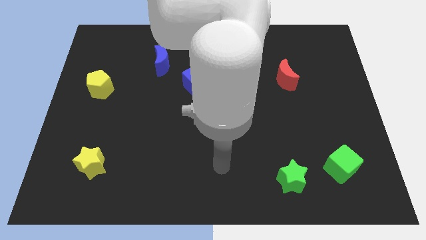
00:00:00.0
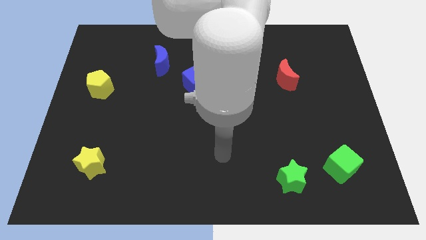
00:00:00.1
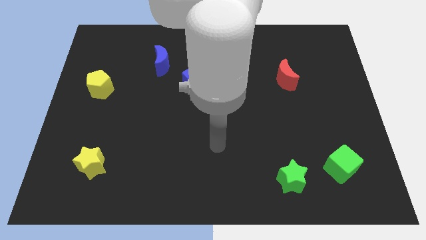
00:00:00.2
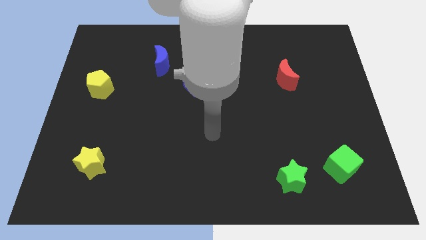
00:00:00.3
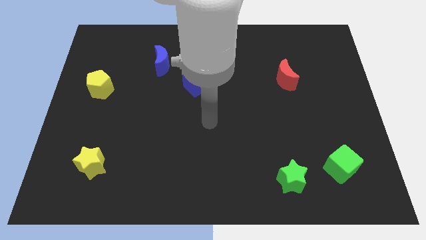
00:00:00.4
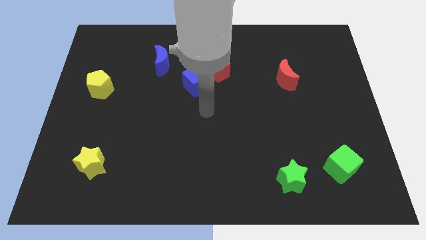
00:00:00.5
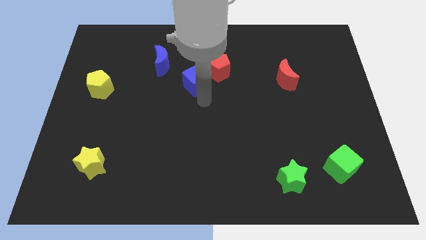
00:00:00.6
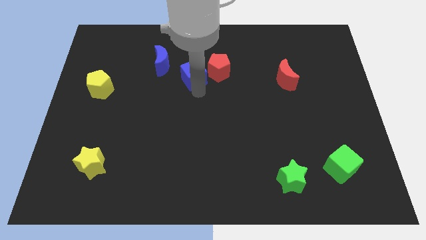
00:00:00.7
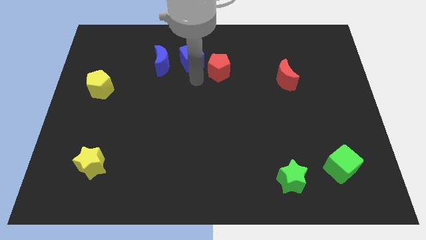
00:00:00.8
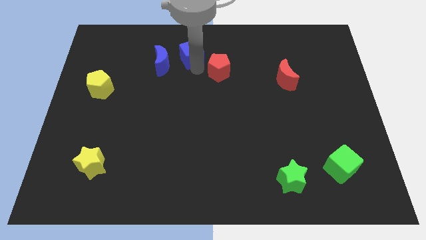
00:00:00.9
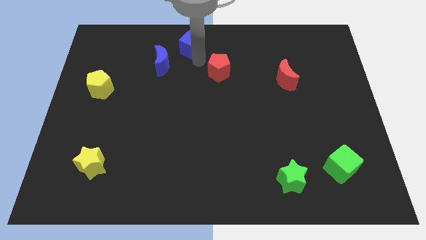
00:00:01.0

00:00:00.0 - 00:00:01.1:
separate the red pentagon from the blue cube

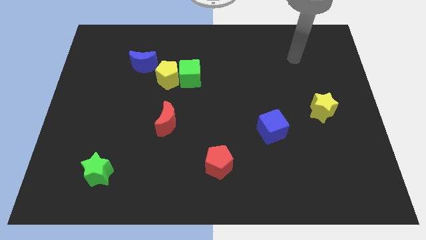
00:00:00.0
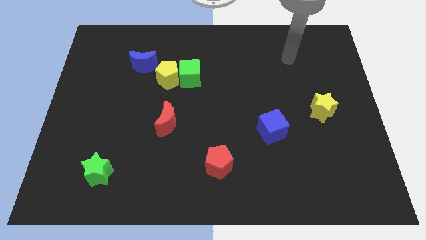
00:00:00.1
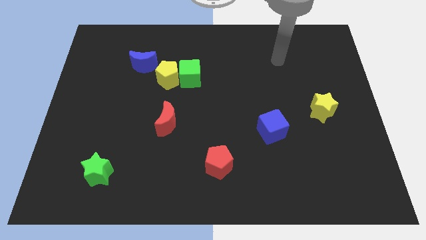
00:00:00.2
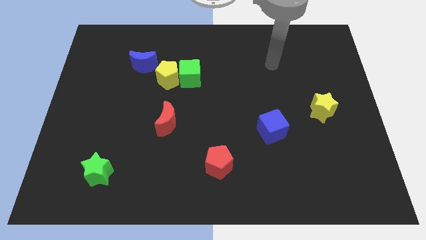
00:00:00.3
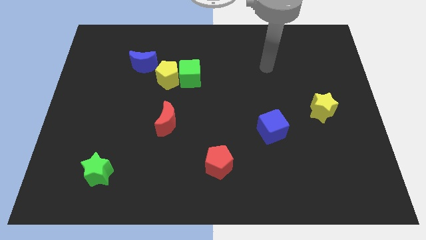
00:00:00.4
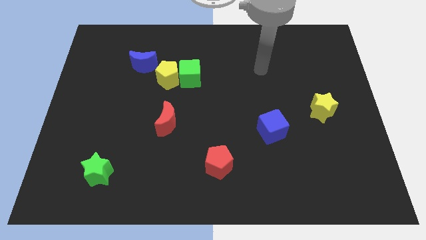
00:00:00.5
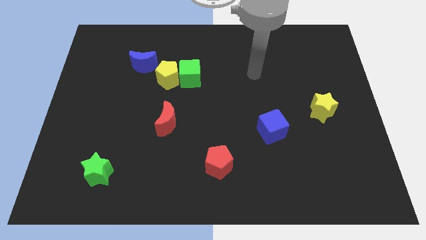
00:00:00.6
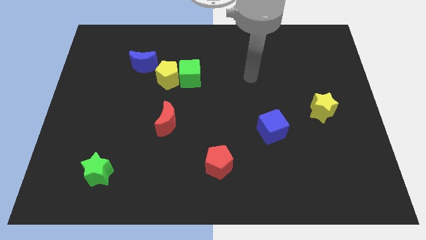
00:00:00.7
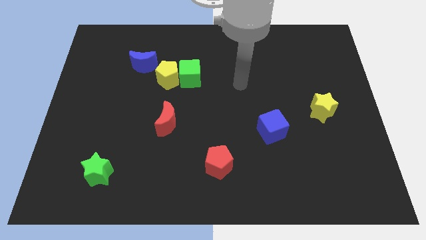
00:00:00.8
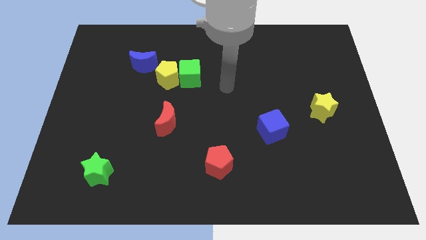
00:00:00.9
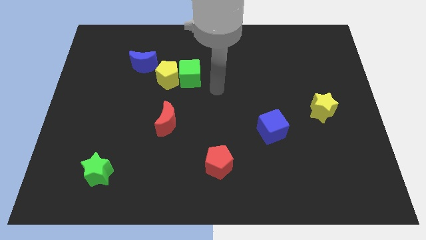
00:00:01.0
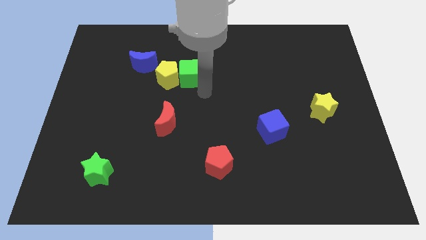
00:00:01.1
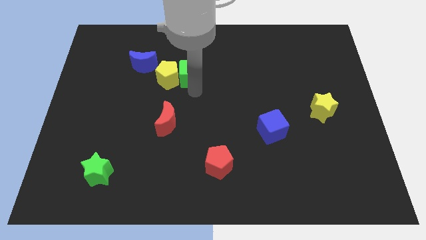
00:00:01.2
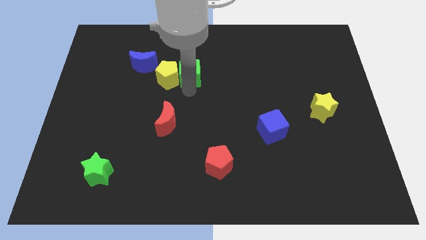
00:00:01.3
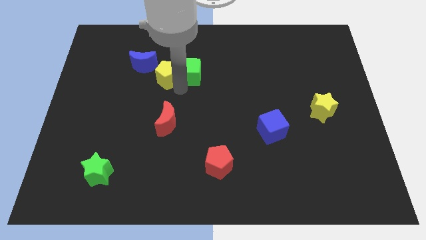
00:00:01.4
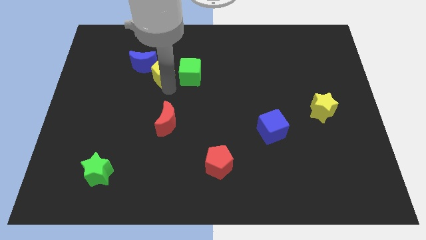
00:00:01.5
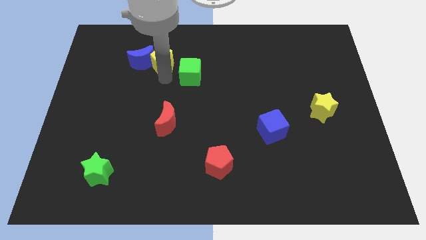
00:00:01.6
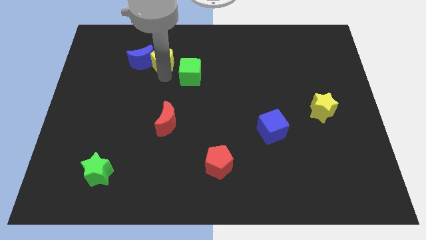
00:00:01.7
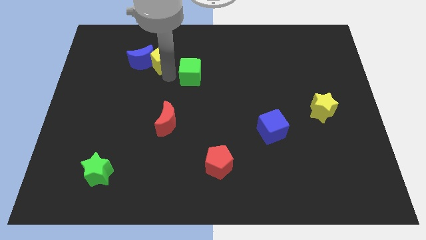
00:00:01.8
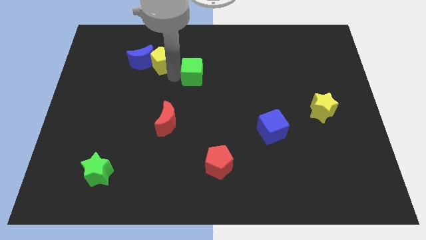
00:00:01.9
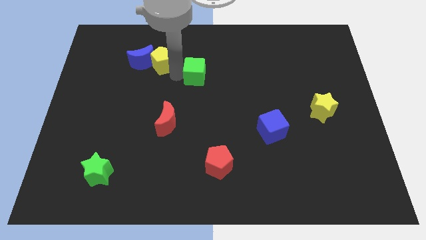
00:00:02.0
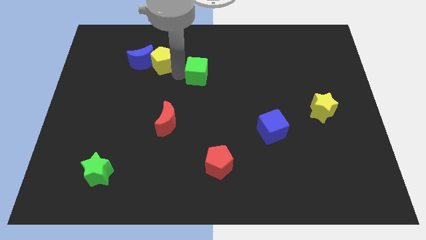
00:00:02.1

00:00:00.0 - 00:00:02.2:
separate the green cube from the yellow pentagon

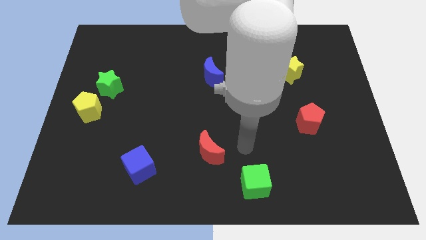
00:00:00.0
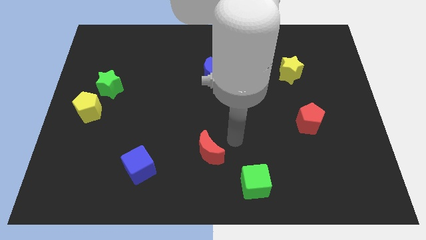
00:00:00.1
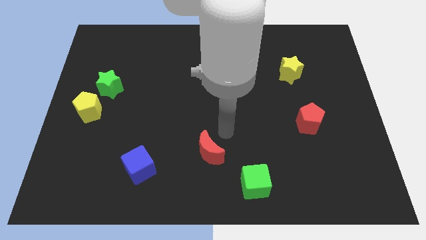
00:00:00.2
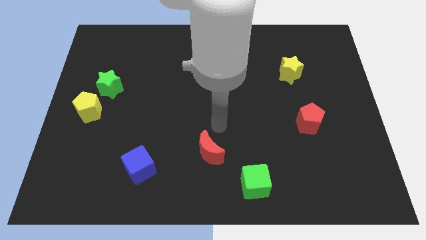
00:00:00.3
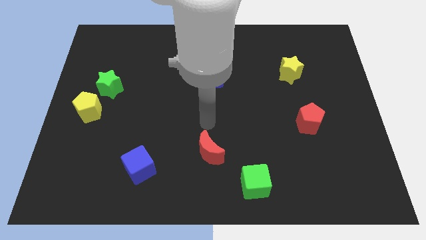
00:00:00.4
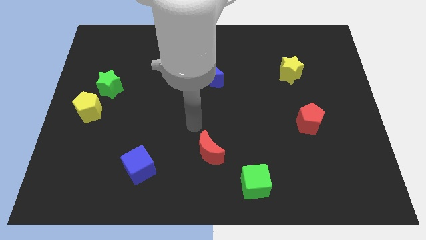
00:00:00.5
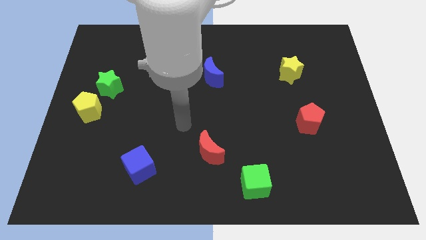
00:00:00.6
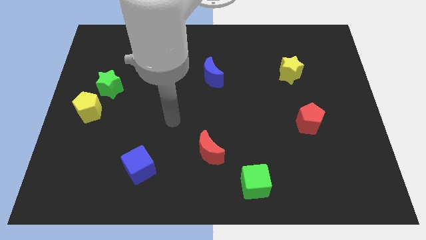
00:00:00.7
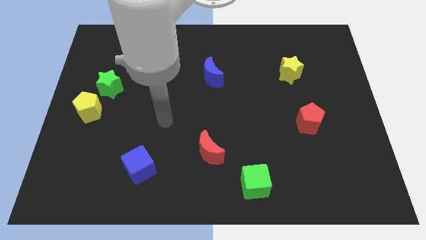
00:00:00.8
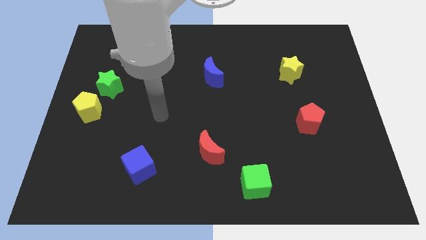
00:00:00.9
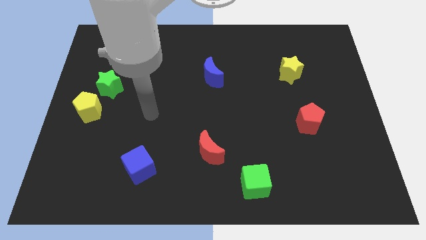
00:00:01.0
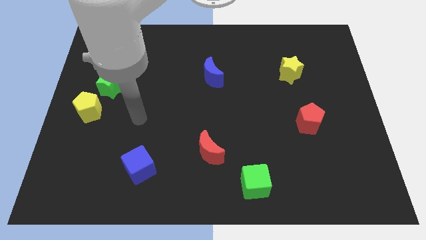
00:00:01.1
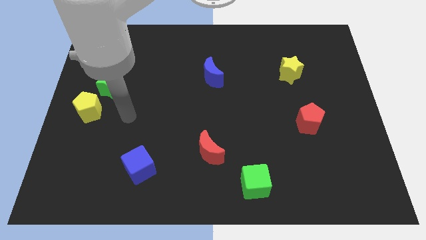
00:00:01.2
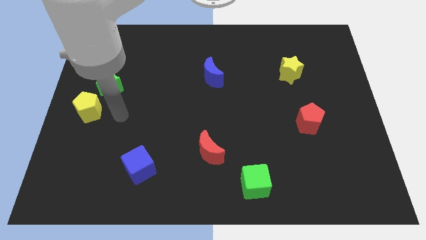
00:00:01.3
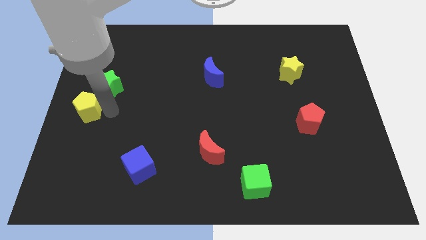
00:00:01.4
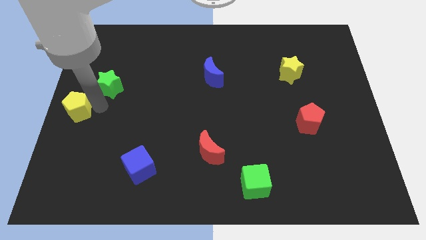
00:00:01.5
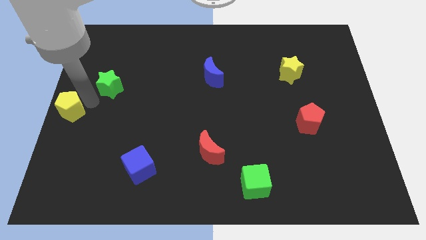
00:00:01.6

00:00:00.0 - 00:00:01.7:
separate the green star from the yellow pentagon

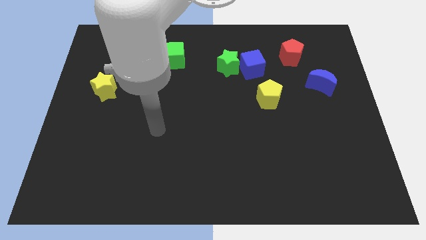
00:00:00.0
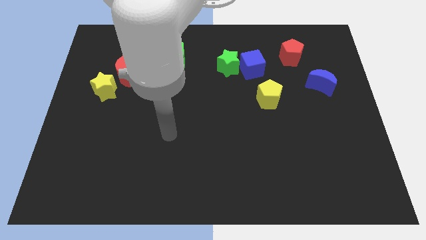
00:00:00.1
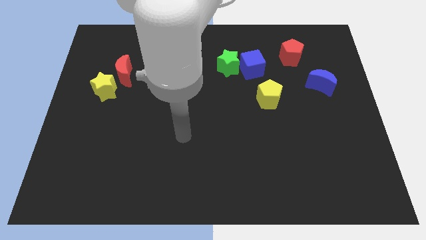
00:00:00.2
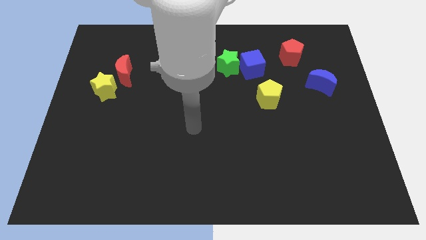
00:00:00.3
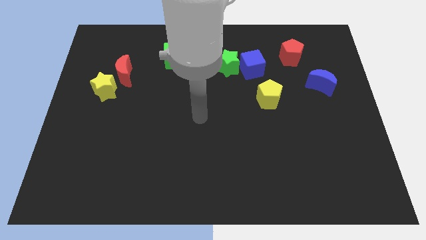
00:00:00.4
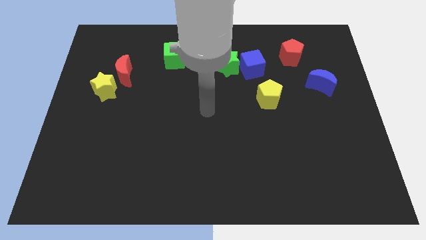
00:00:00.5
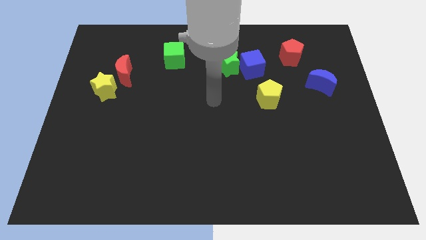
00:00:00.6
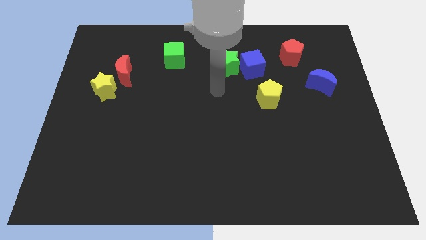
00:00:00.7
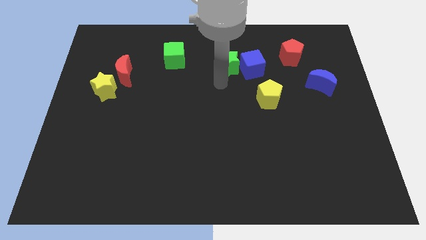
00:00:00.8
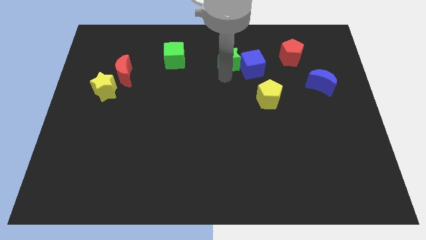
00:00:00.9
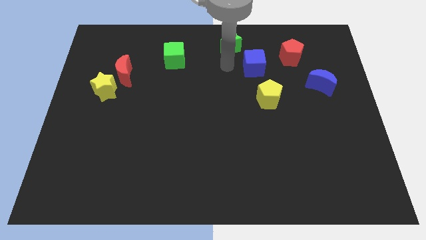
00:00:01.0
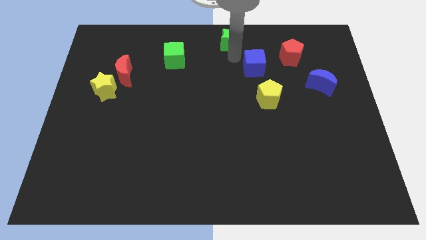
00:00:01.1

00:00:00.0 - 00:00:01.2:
move the blue cube away from the green star

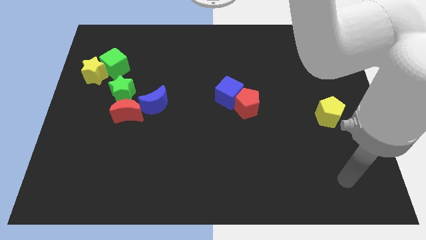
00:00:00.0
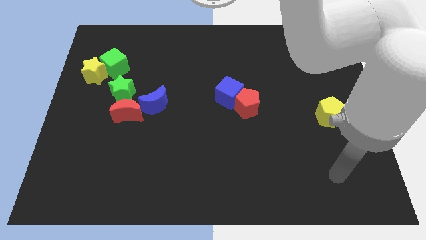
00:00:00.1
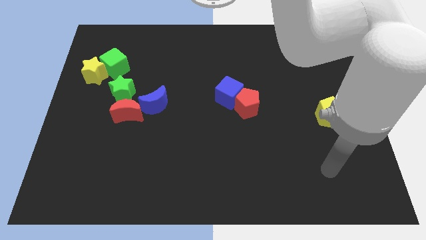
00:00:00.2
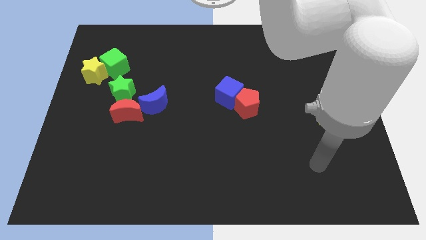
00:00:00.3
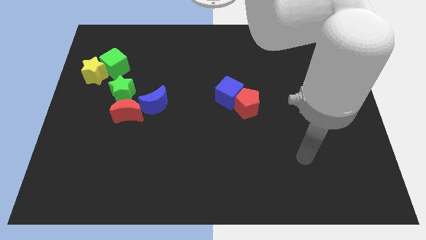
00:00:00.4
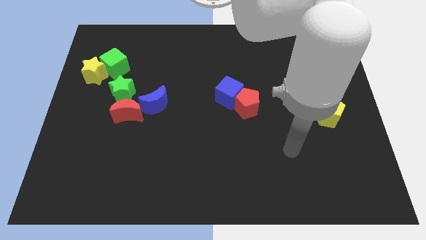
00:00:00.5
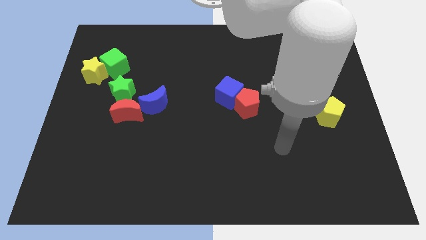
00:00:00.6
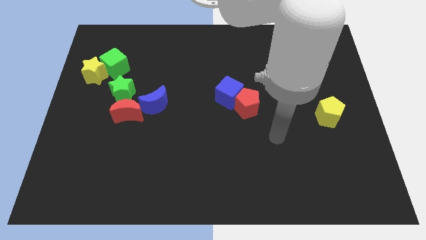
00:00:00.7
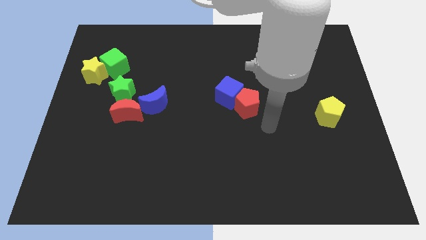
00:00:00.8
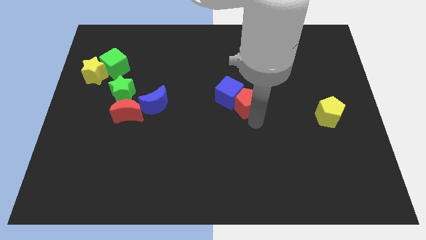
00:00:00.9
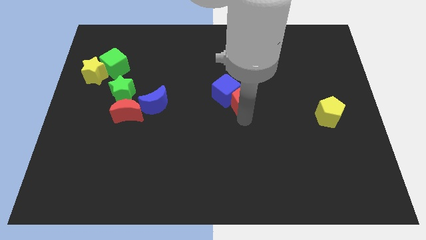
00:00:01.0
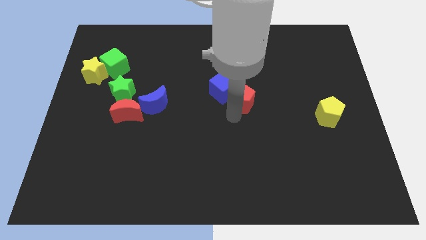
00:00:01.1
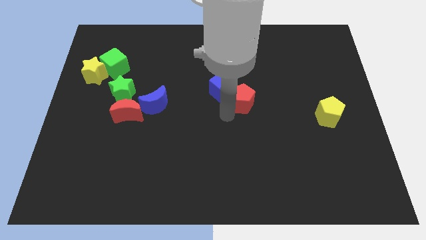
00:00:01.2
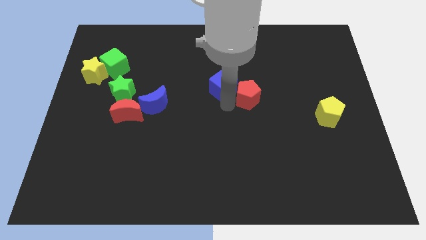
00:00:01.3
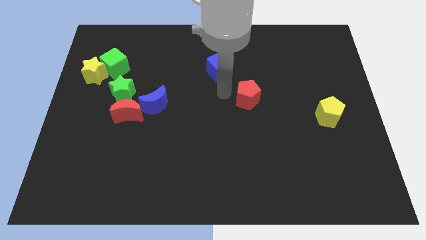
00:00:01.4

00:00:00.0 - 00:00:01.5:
move the red pentagon away from the blue cube

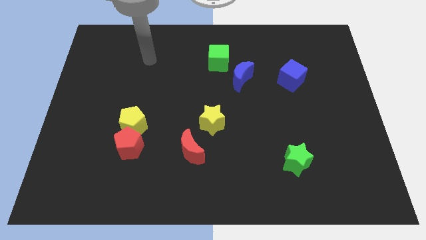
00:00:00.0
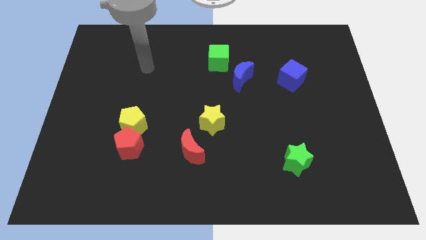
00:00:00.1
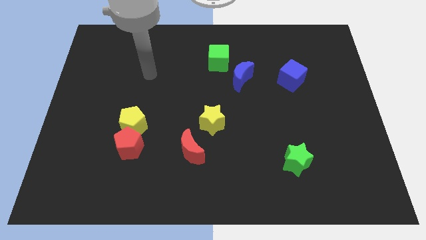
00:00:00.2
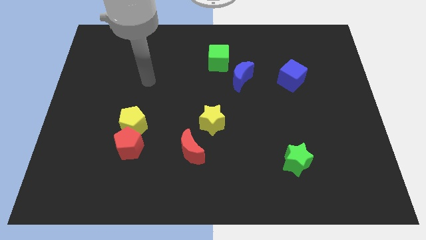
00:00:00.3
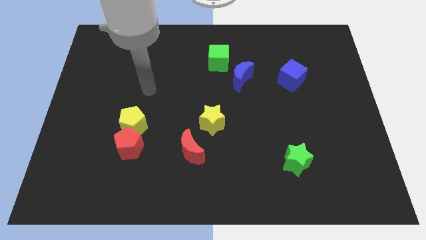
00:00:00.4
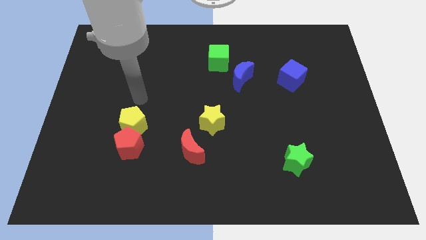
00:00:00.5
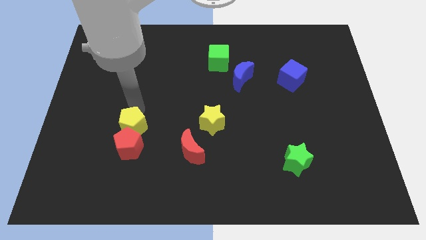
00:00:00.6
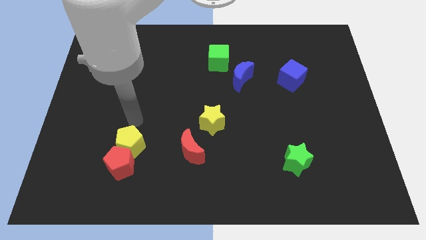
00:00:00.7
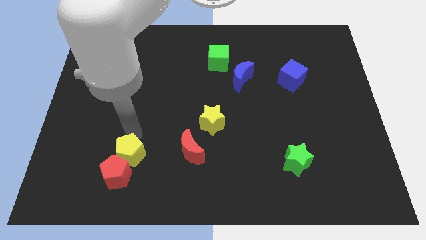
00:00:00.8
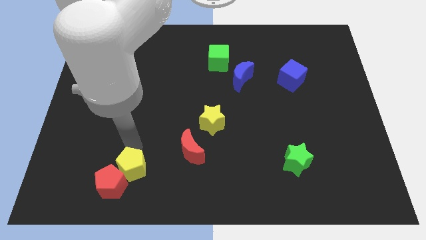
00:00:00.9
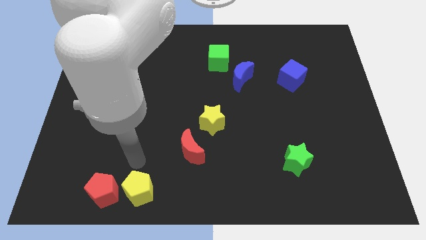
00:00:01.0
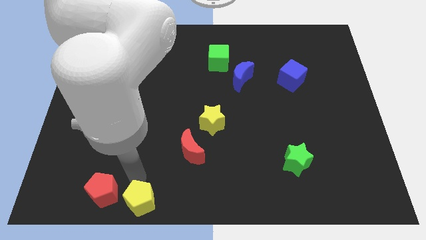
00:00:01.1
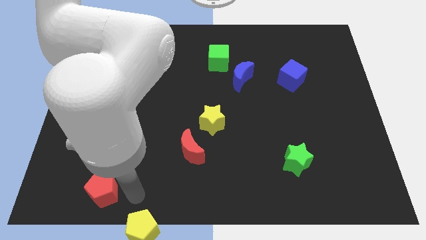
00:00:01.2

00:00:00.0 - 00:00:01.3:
separate the red pentagon from the yellow pentagon

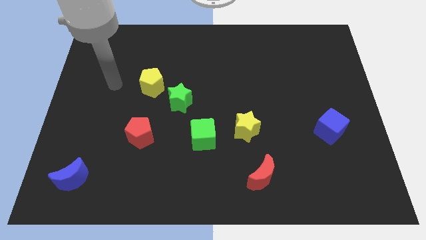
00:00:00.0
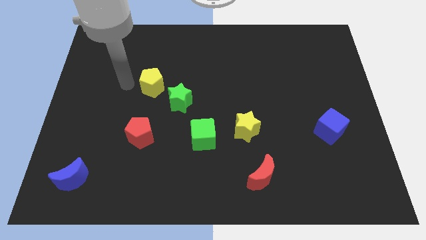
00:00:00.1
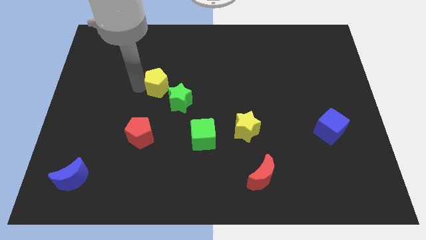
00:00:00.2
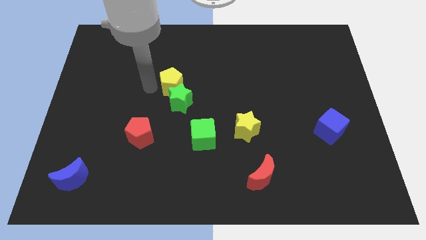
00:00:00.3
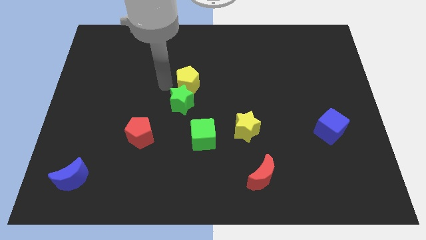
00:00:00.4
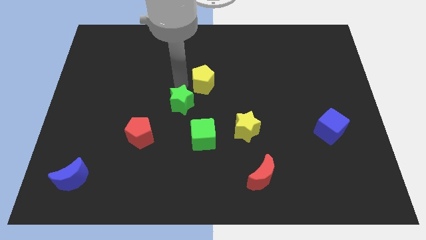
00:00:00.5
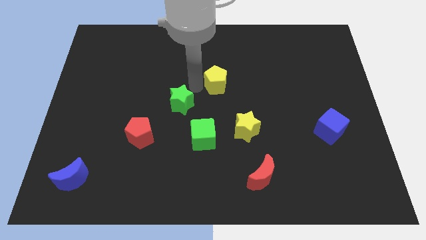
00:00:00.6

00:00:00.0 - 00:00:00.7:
move the green star away from the yellow pentagon
